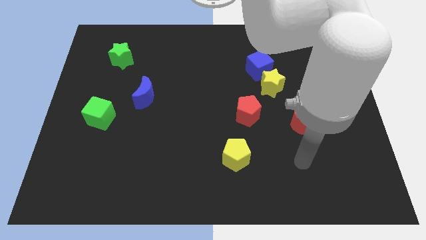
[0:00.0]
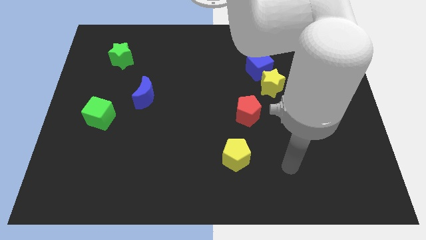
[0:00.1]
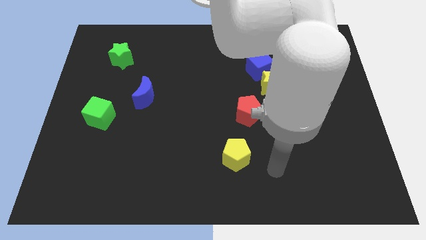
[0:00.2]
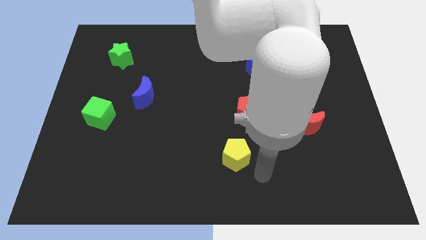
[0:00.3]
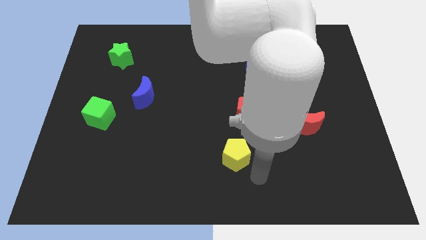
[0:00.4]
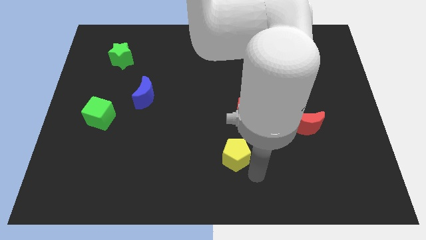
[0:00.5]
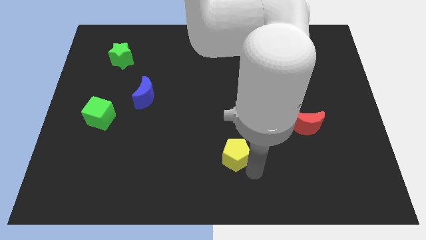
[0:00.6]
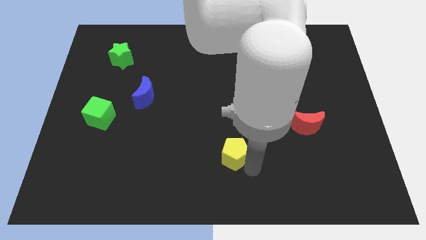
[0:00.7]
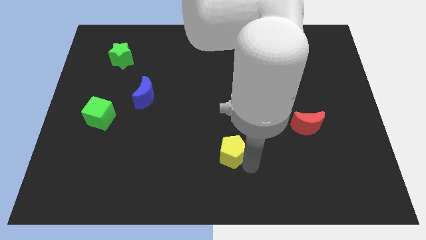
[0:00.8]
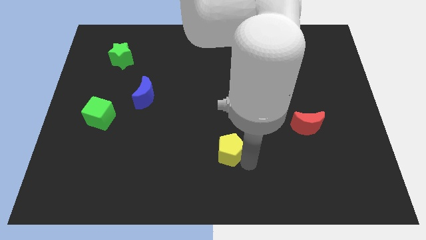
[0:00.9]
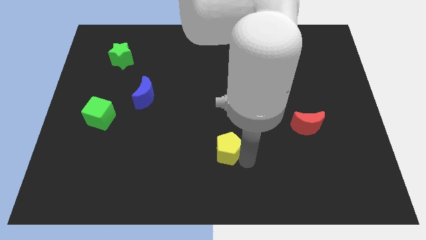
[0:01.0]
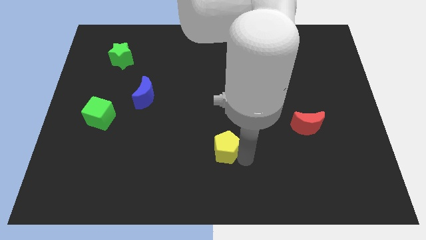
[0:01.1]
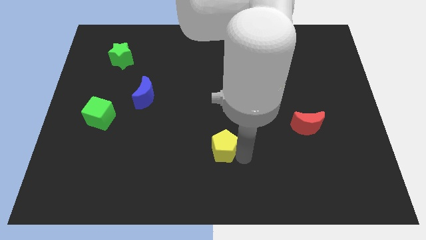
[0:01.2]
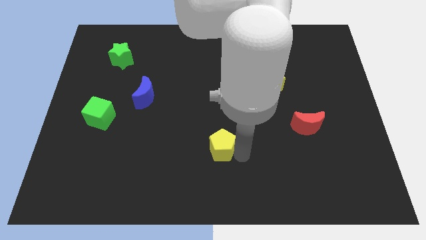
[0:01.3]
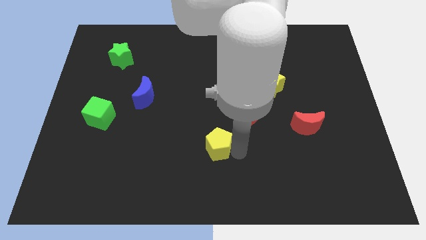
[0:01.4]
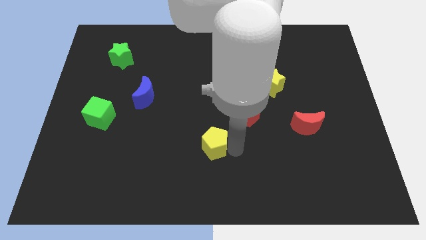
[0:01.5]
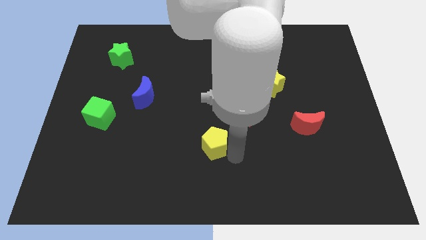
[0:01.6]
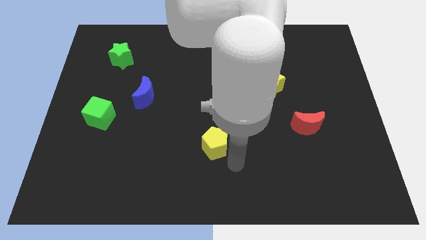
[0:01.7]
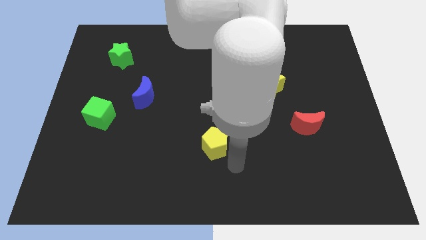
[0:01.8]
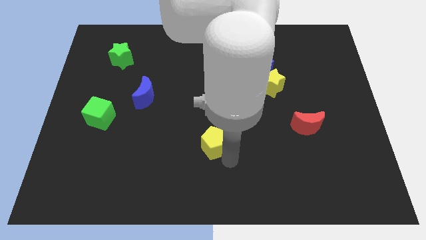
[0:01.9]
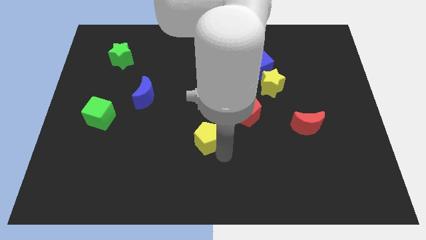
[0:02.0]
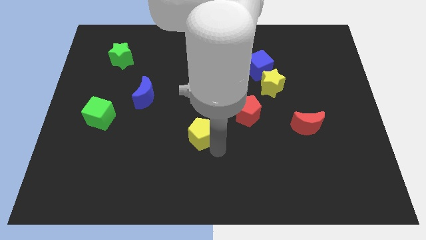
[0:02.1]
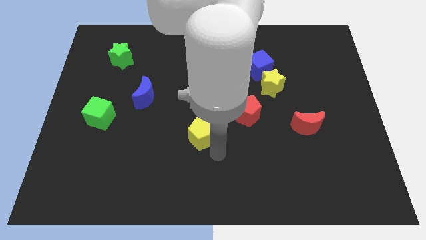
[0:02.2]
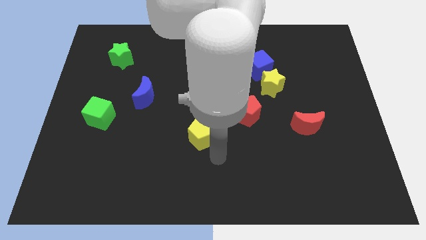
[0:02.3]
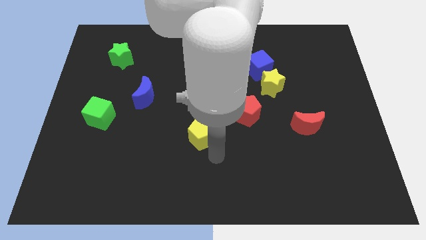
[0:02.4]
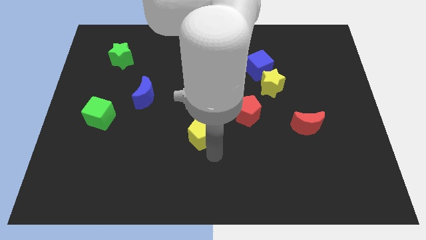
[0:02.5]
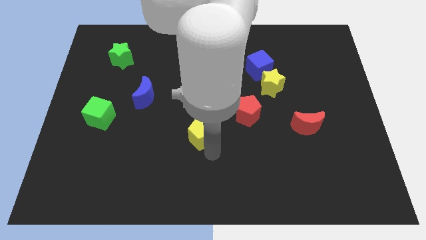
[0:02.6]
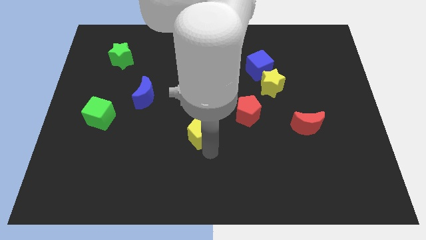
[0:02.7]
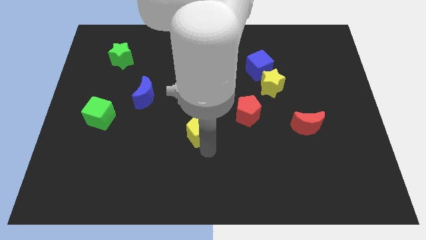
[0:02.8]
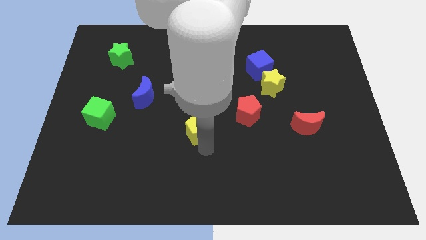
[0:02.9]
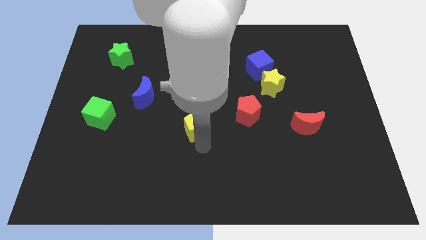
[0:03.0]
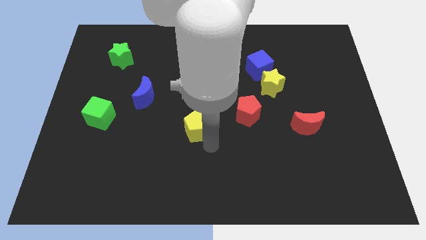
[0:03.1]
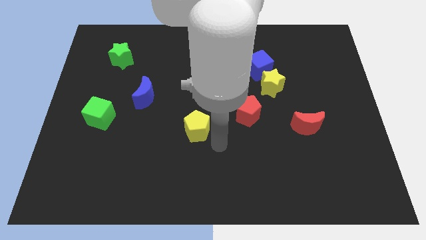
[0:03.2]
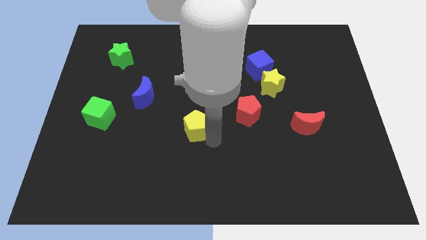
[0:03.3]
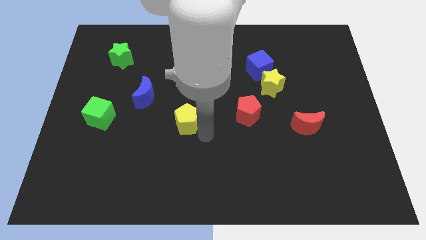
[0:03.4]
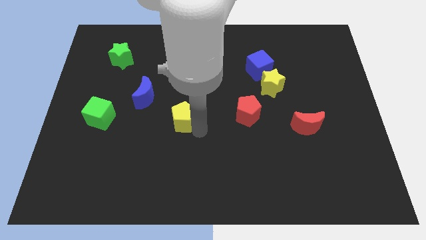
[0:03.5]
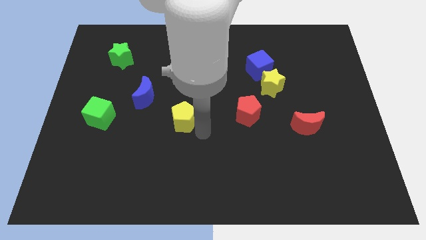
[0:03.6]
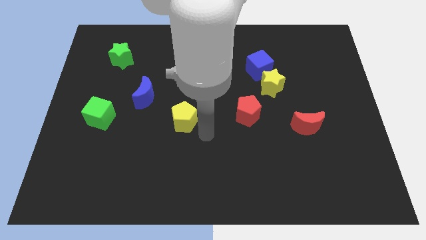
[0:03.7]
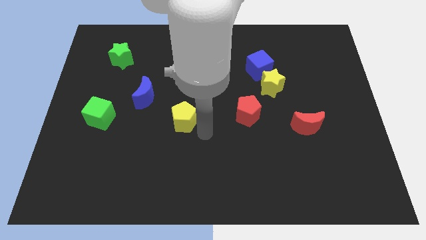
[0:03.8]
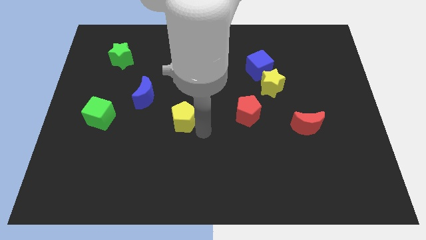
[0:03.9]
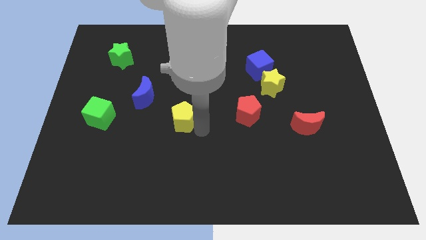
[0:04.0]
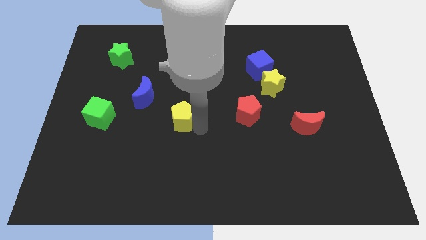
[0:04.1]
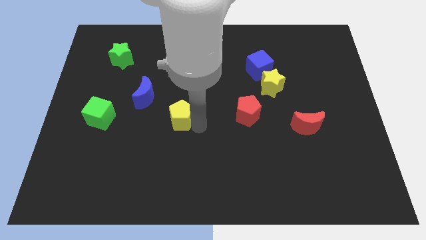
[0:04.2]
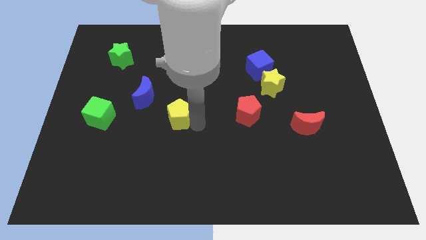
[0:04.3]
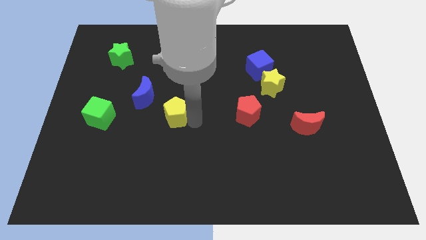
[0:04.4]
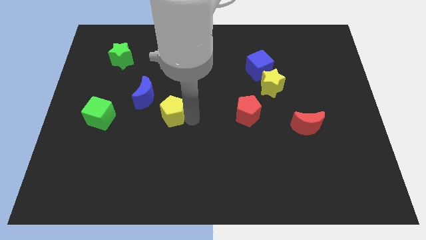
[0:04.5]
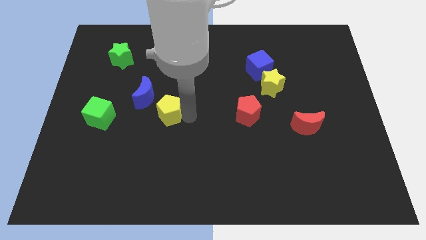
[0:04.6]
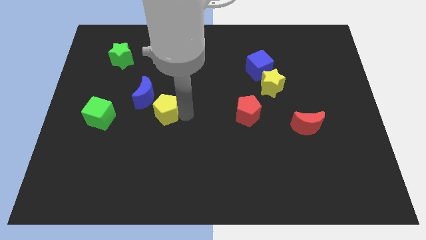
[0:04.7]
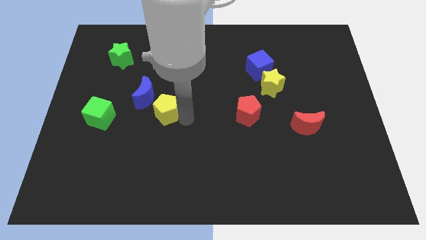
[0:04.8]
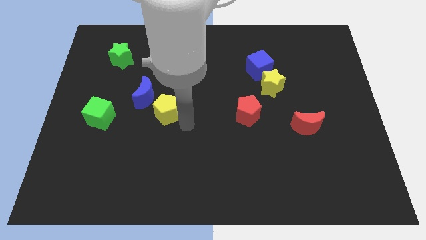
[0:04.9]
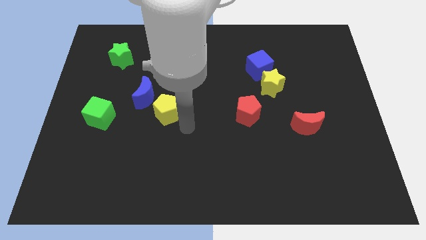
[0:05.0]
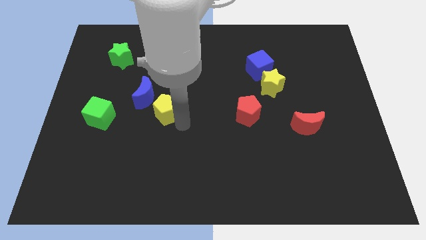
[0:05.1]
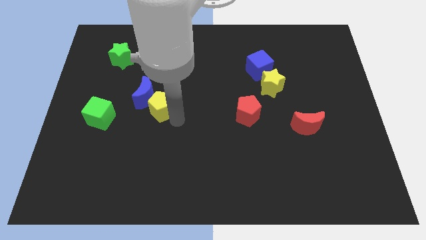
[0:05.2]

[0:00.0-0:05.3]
move the yellow pentagon to the blue moon

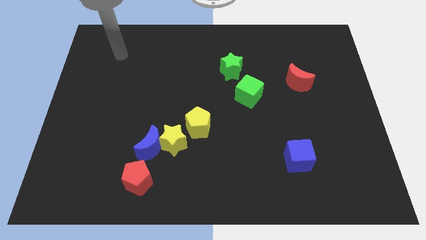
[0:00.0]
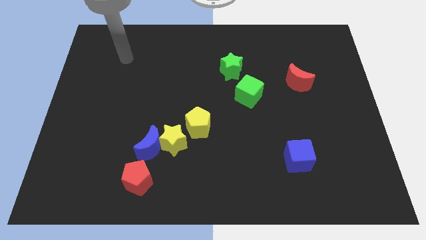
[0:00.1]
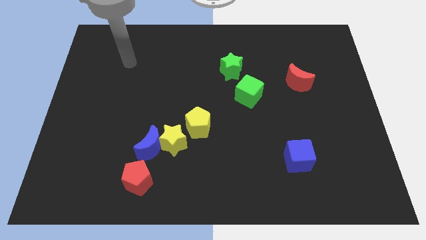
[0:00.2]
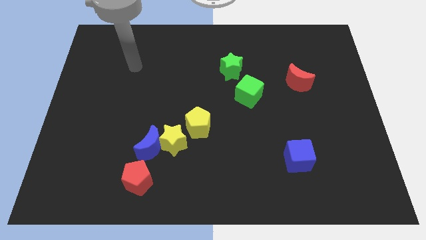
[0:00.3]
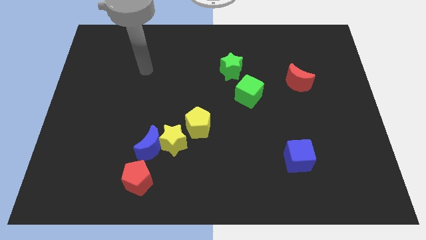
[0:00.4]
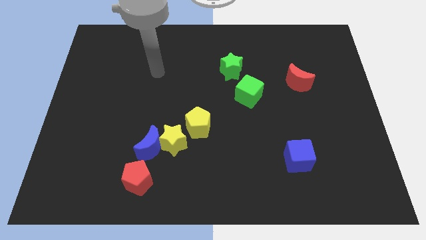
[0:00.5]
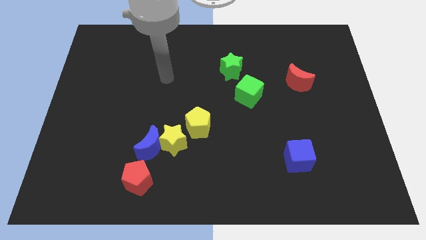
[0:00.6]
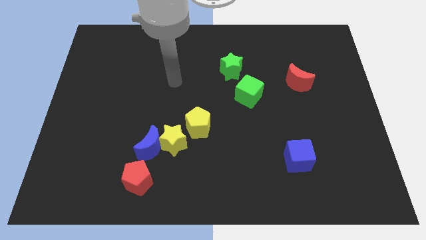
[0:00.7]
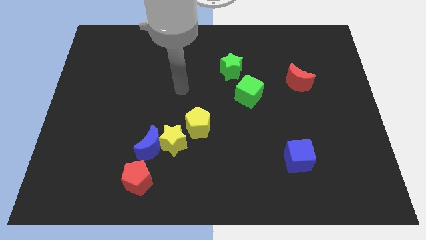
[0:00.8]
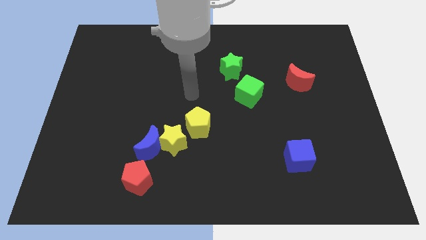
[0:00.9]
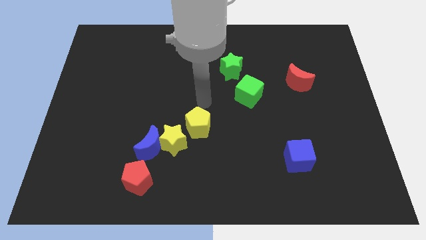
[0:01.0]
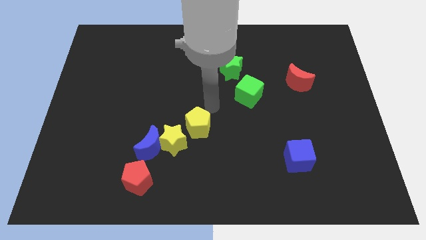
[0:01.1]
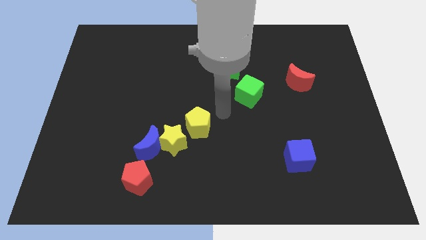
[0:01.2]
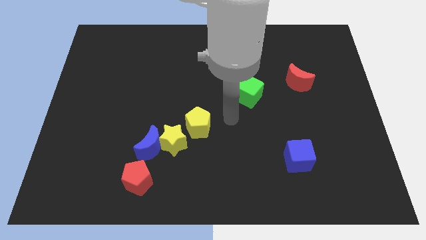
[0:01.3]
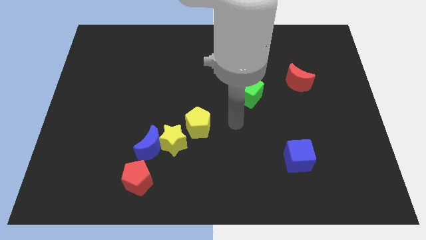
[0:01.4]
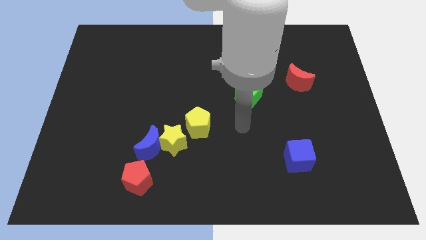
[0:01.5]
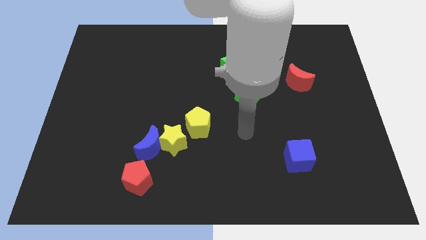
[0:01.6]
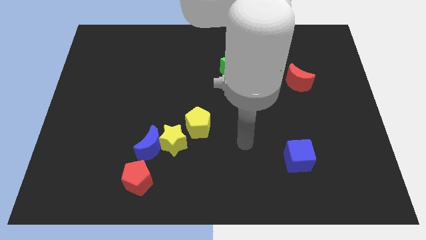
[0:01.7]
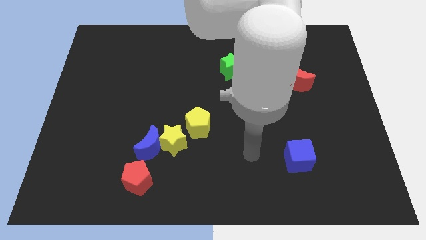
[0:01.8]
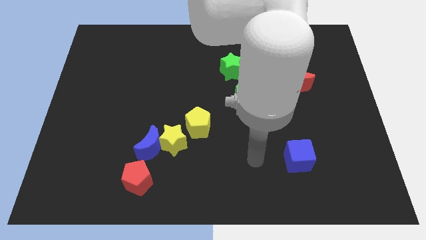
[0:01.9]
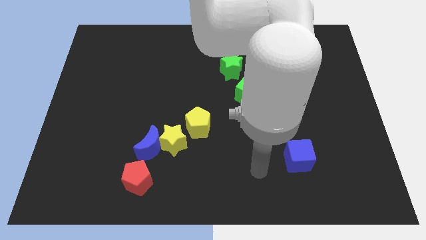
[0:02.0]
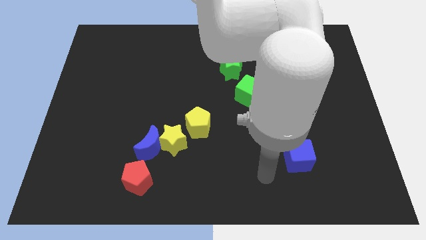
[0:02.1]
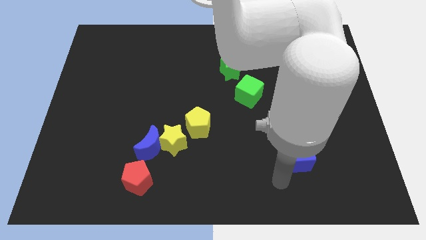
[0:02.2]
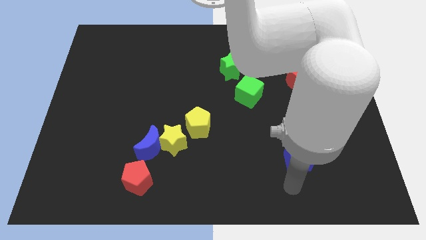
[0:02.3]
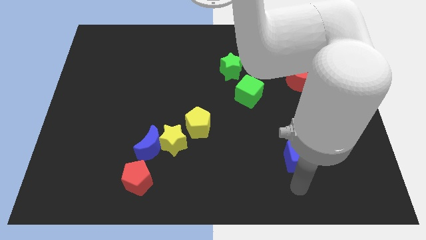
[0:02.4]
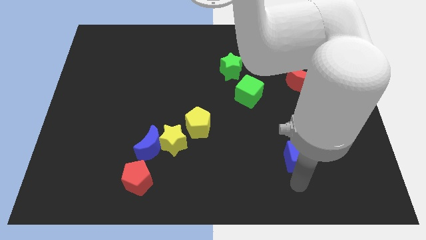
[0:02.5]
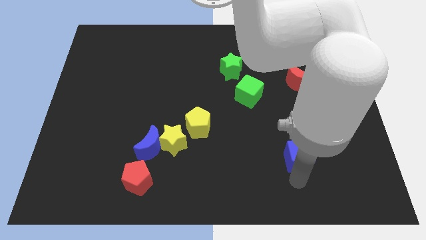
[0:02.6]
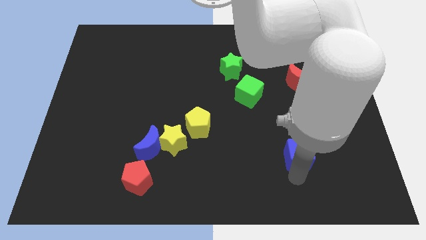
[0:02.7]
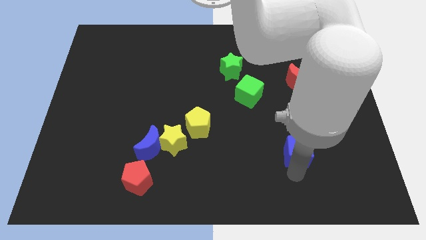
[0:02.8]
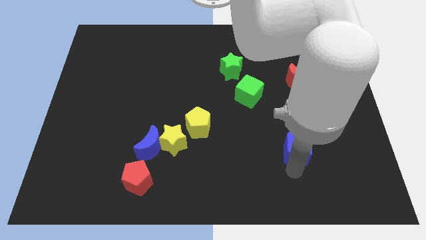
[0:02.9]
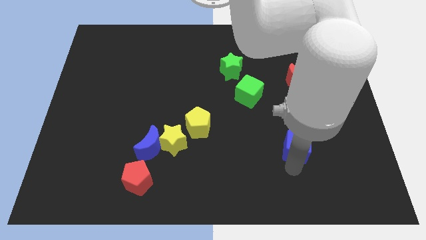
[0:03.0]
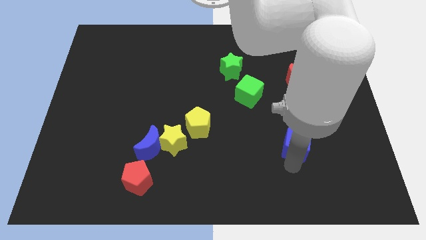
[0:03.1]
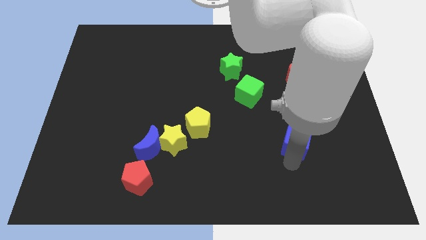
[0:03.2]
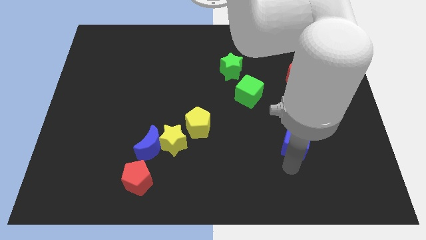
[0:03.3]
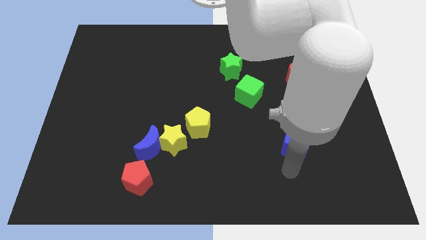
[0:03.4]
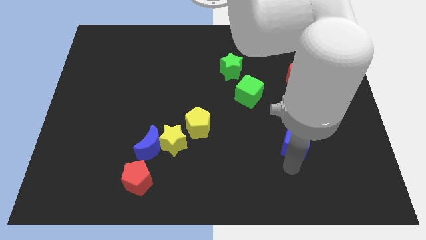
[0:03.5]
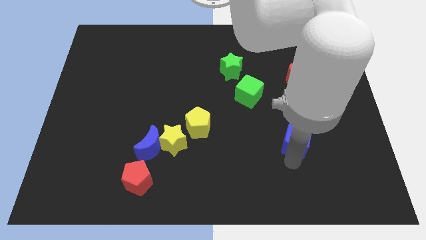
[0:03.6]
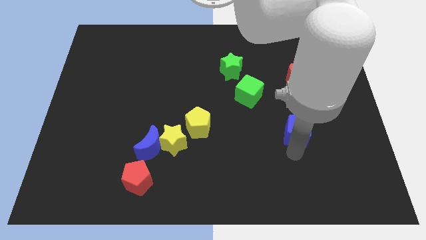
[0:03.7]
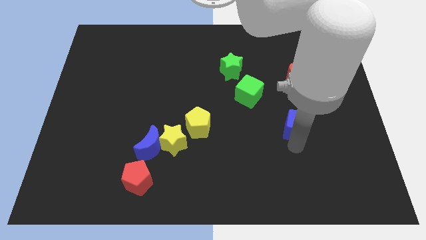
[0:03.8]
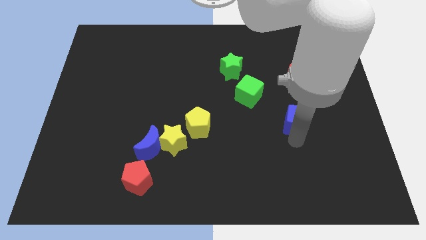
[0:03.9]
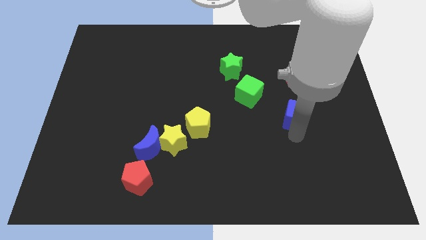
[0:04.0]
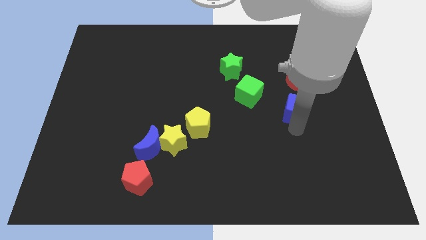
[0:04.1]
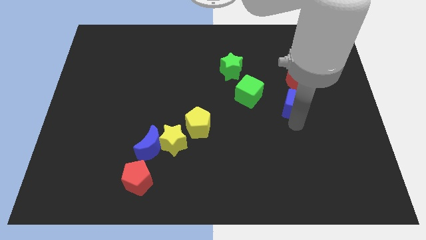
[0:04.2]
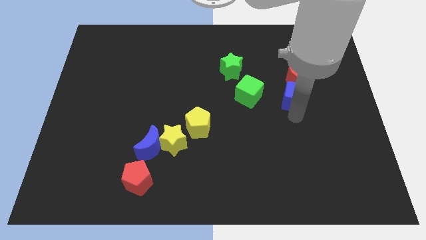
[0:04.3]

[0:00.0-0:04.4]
put the blue cube close to the red moon
